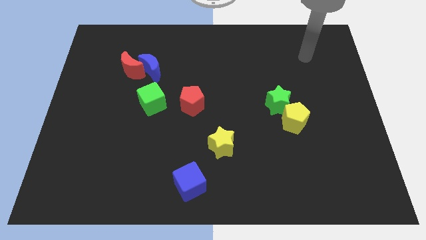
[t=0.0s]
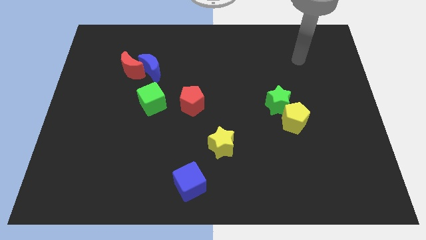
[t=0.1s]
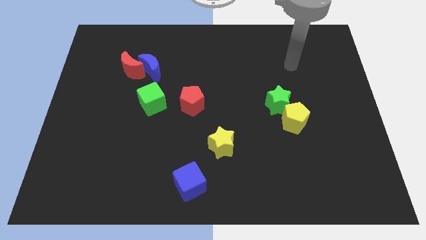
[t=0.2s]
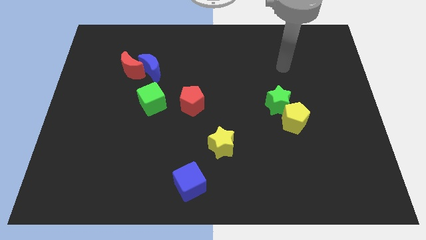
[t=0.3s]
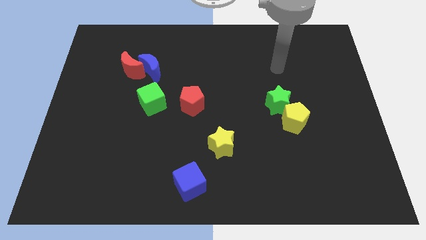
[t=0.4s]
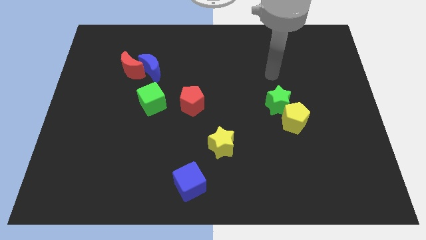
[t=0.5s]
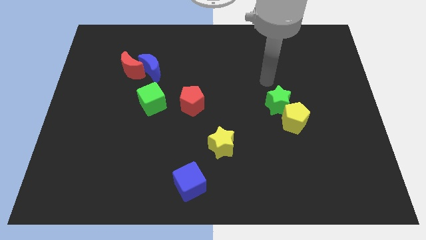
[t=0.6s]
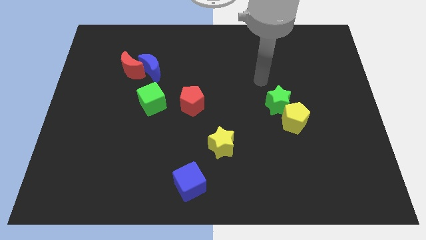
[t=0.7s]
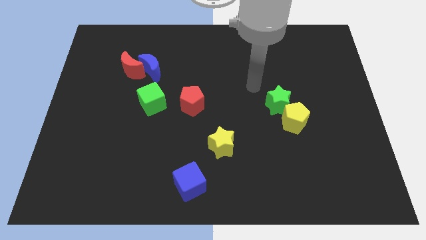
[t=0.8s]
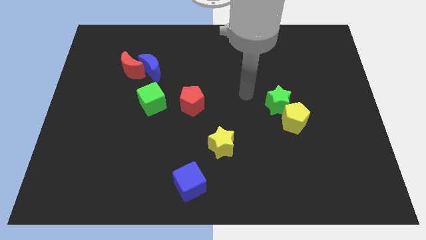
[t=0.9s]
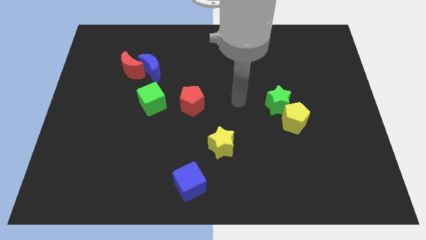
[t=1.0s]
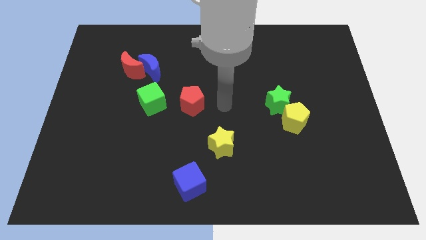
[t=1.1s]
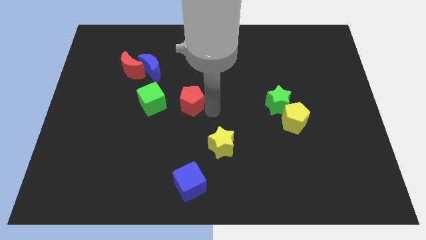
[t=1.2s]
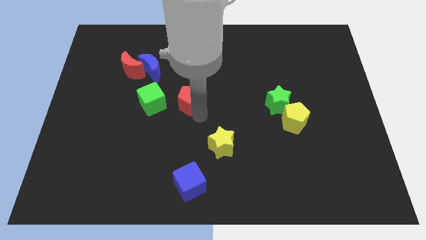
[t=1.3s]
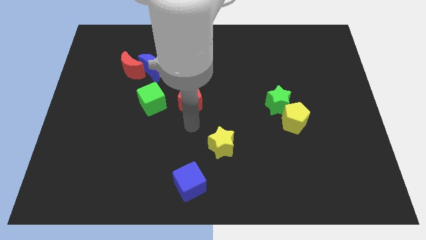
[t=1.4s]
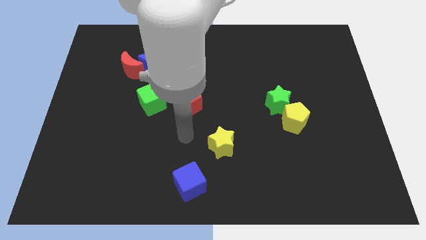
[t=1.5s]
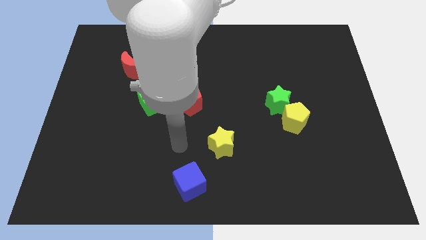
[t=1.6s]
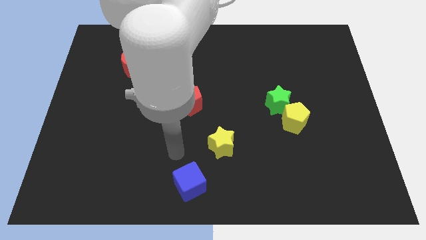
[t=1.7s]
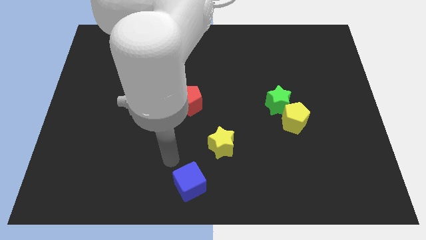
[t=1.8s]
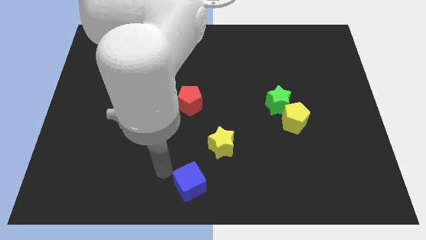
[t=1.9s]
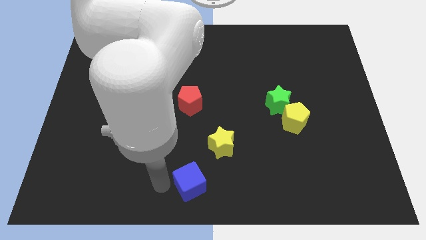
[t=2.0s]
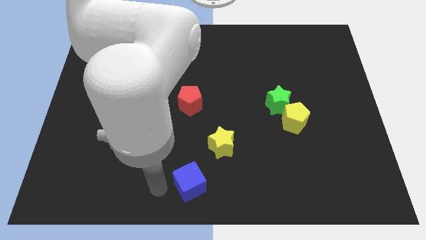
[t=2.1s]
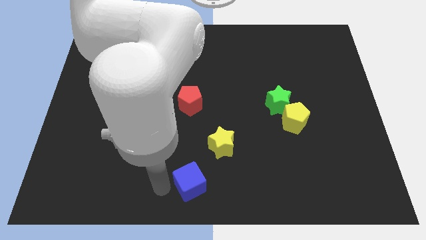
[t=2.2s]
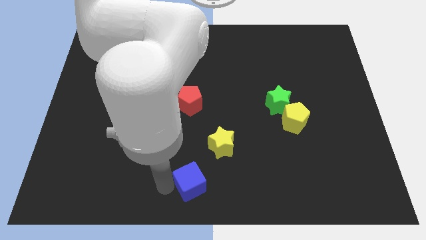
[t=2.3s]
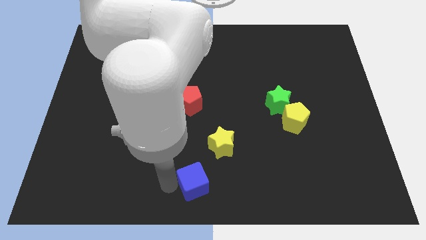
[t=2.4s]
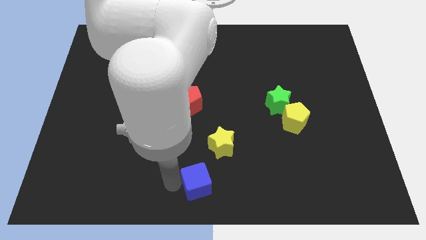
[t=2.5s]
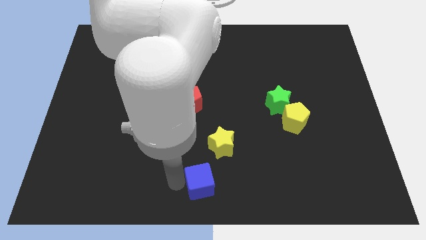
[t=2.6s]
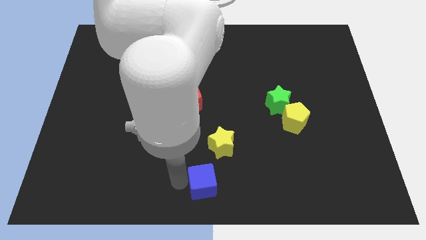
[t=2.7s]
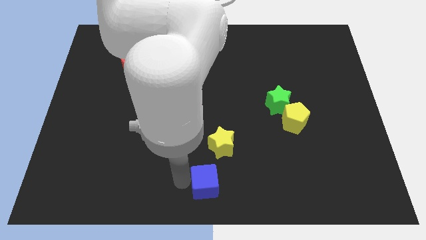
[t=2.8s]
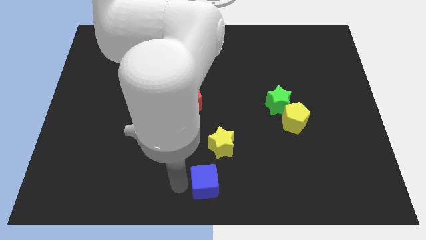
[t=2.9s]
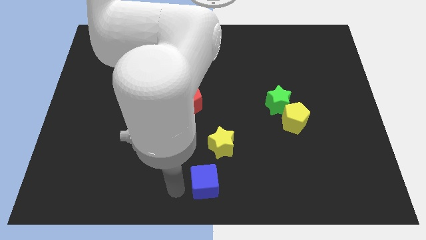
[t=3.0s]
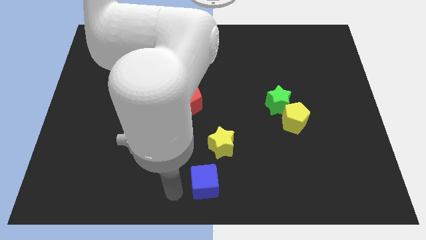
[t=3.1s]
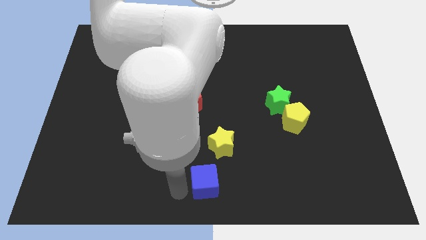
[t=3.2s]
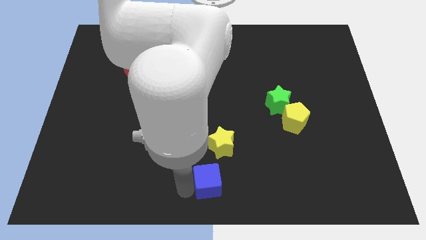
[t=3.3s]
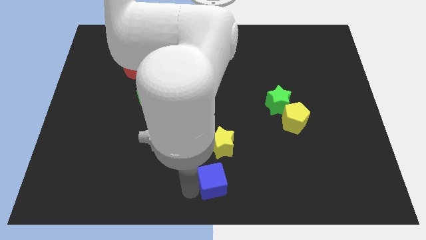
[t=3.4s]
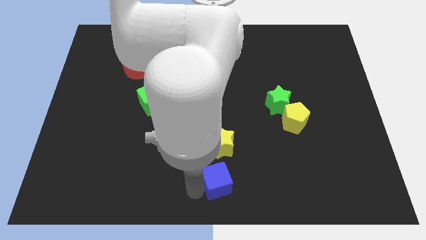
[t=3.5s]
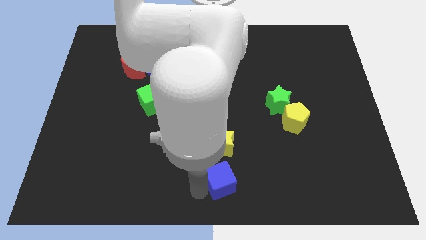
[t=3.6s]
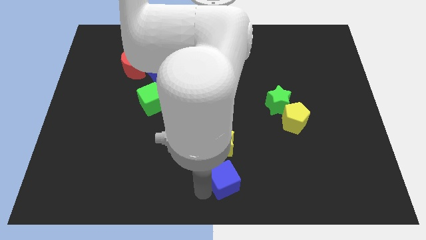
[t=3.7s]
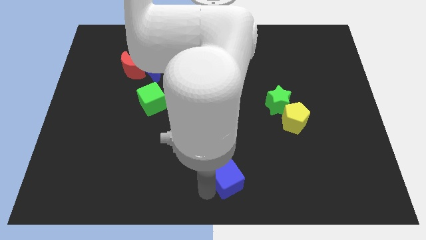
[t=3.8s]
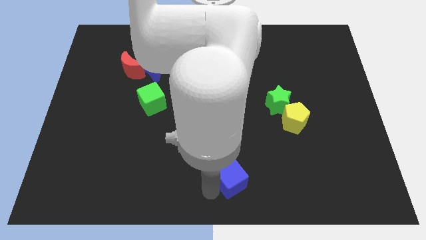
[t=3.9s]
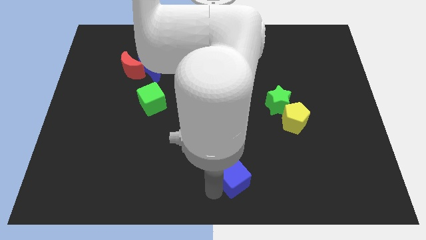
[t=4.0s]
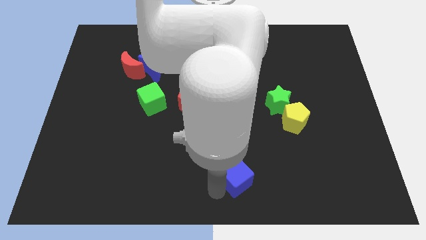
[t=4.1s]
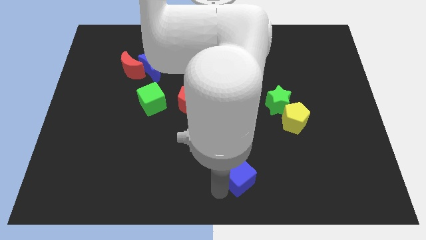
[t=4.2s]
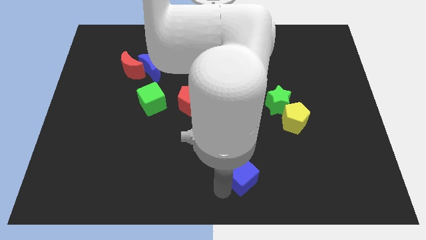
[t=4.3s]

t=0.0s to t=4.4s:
push the blue cube a little bit diagonally up and to the right

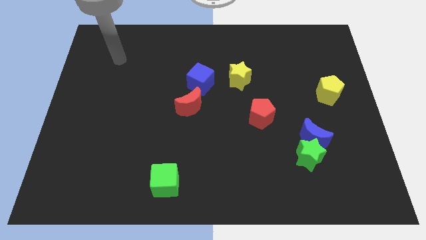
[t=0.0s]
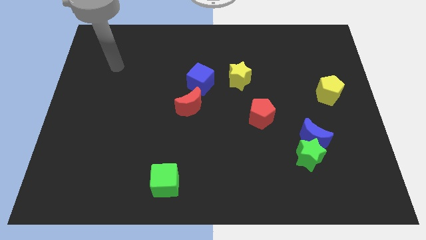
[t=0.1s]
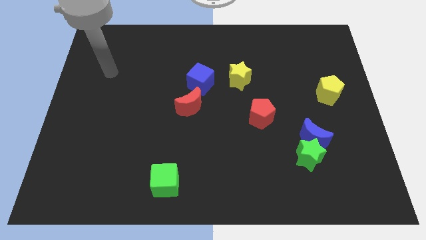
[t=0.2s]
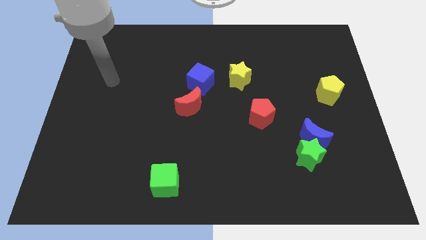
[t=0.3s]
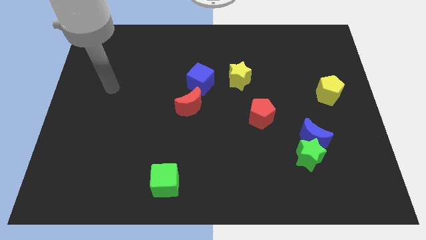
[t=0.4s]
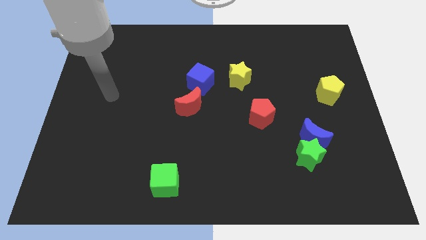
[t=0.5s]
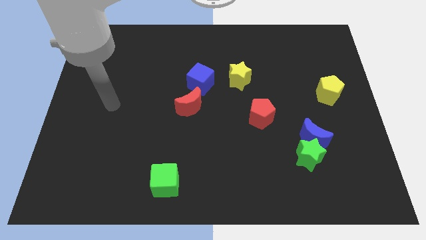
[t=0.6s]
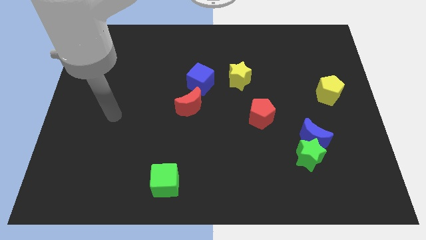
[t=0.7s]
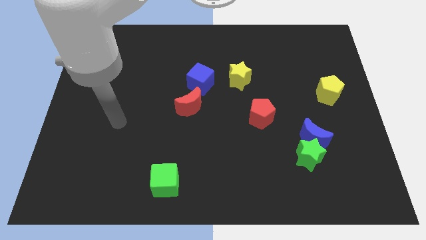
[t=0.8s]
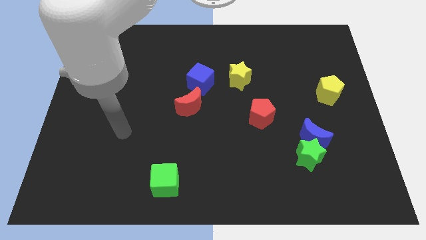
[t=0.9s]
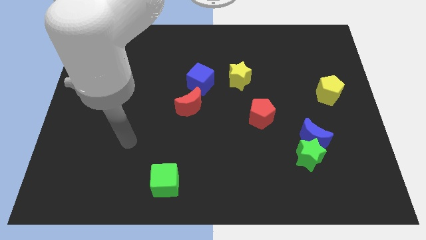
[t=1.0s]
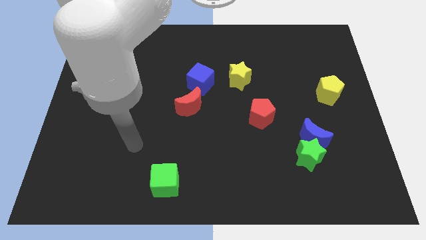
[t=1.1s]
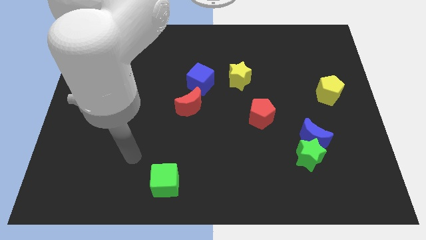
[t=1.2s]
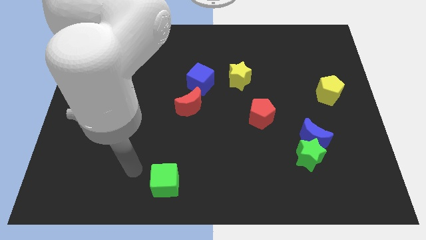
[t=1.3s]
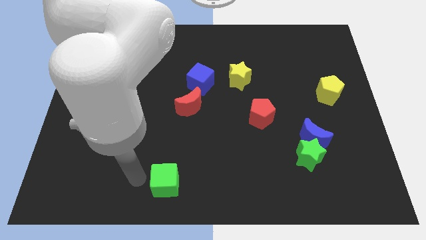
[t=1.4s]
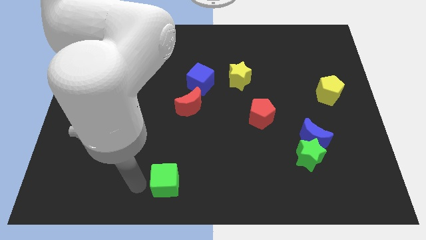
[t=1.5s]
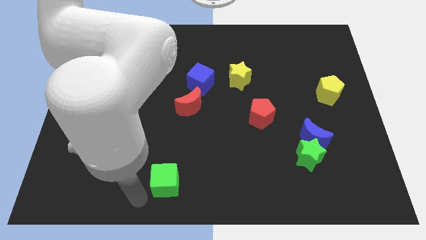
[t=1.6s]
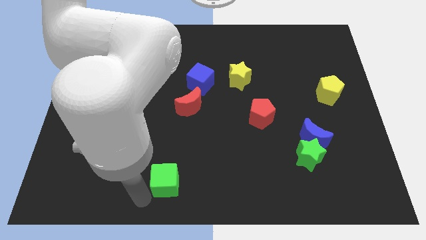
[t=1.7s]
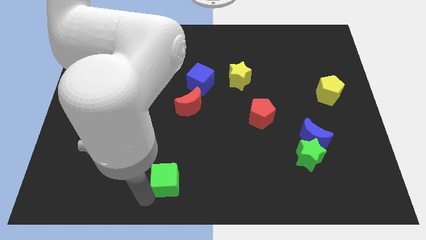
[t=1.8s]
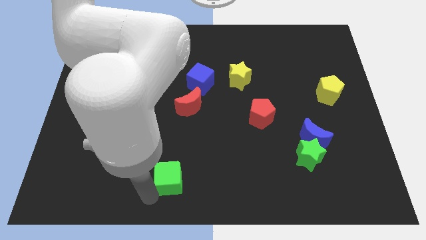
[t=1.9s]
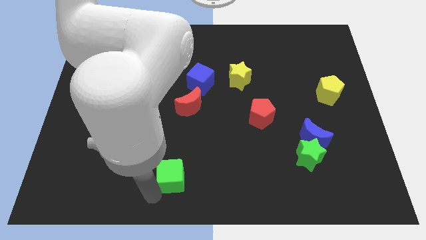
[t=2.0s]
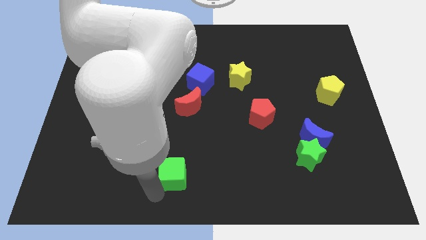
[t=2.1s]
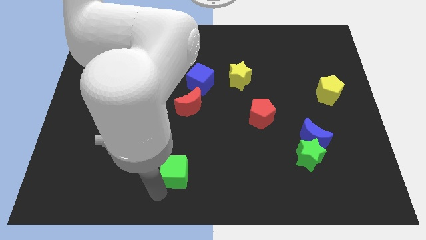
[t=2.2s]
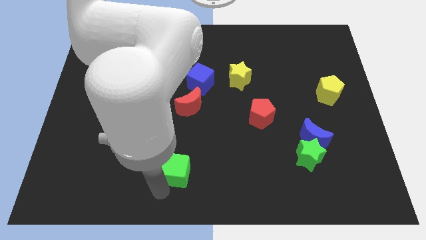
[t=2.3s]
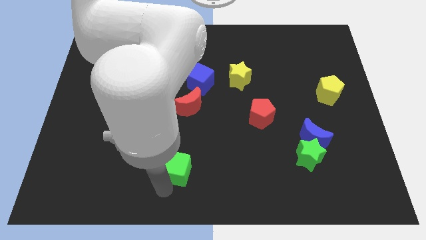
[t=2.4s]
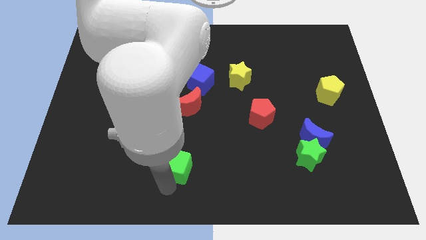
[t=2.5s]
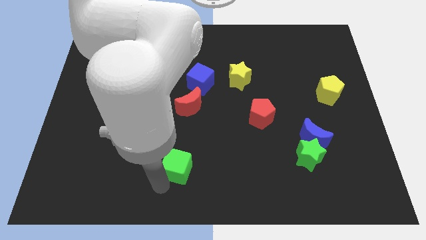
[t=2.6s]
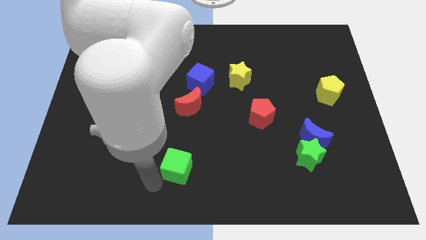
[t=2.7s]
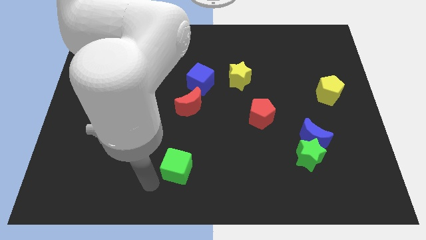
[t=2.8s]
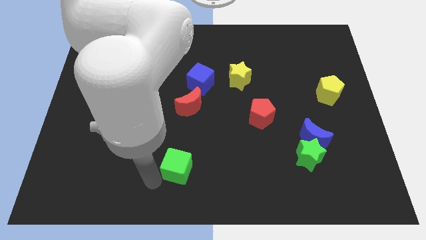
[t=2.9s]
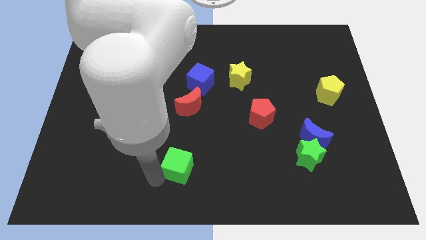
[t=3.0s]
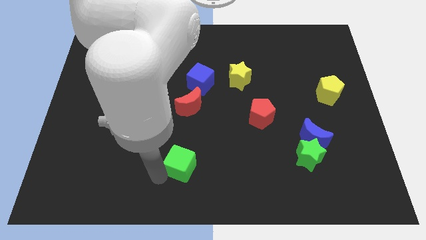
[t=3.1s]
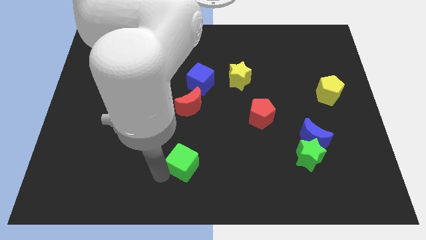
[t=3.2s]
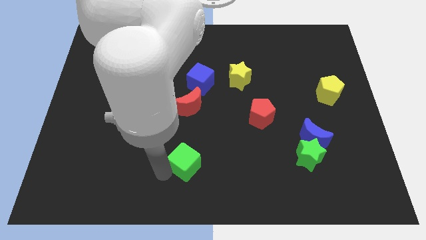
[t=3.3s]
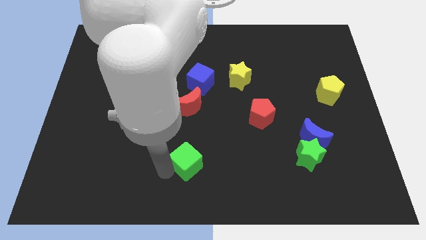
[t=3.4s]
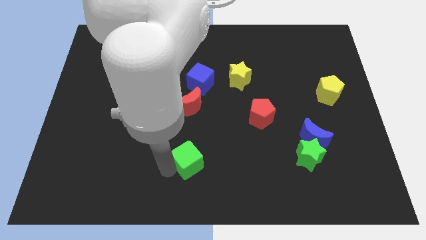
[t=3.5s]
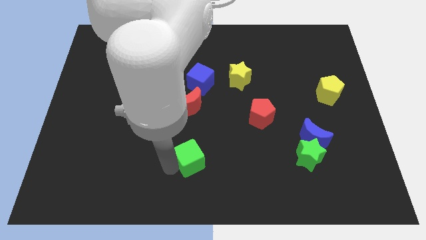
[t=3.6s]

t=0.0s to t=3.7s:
push the green cube diagonally up and to the right a little

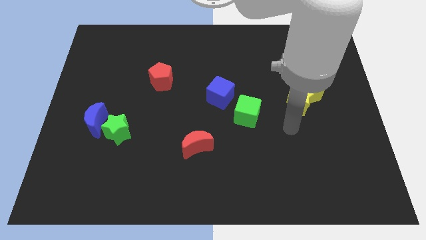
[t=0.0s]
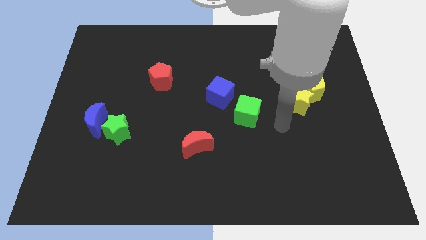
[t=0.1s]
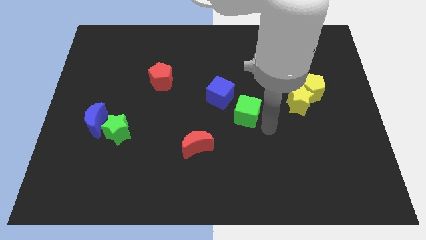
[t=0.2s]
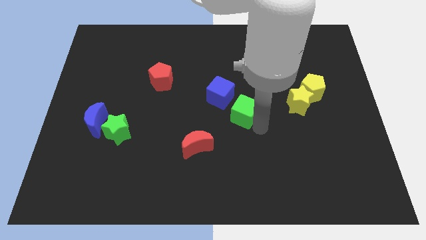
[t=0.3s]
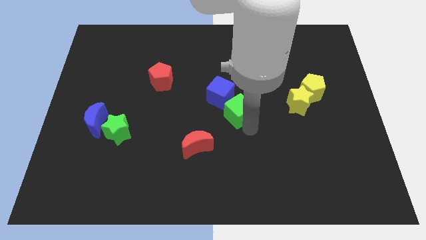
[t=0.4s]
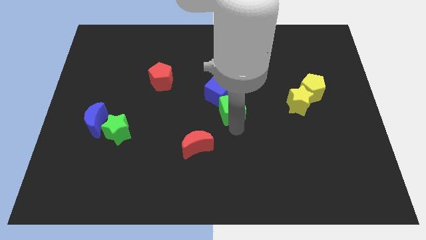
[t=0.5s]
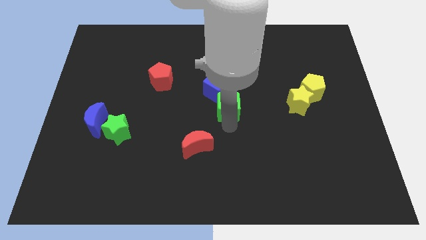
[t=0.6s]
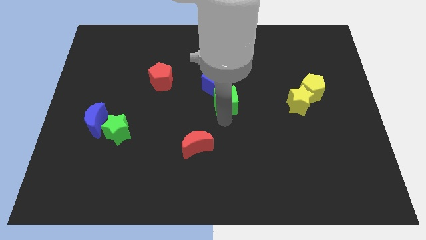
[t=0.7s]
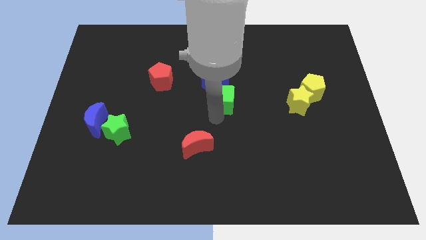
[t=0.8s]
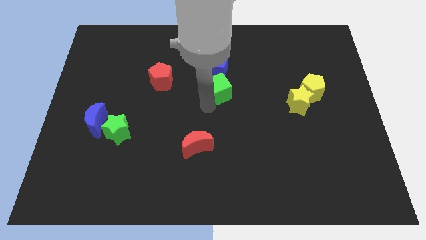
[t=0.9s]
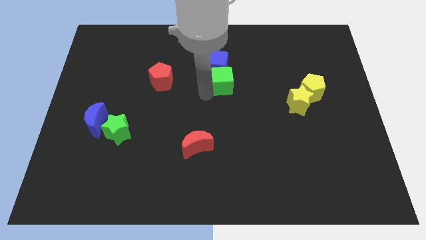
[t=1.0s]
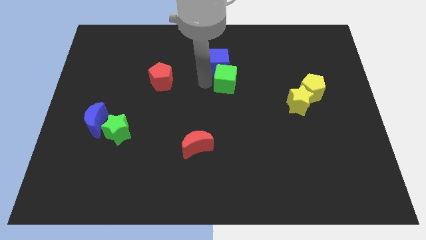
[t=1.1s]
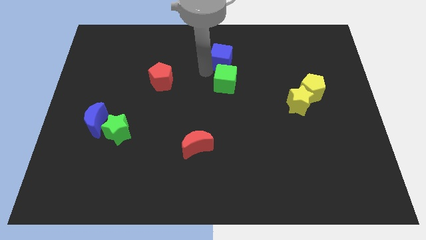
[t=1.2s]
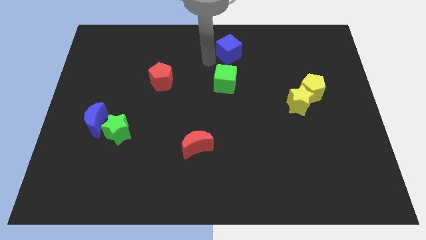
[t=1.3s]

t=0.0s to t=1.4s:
push the blue cube upwards and to the right slightly
